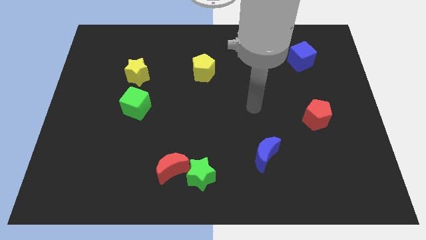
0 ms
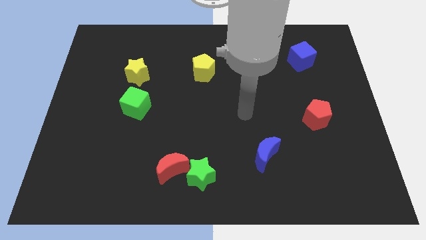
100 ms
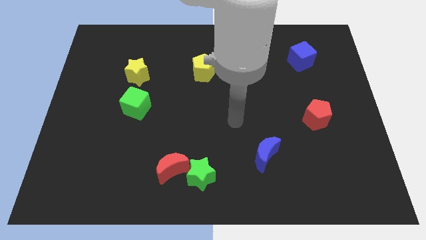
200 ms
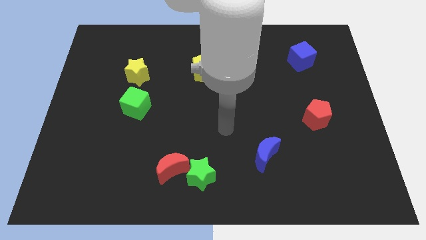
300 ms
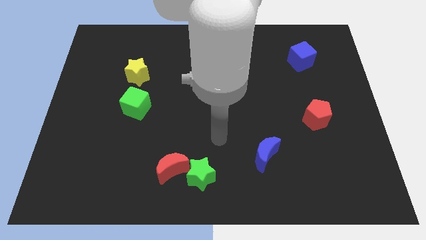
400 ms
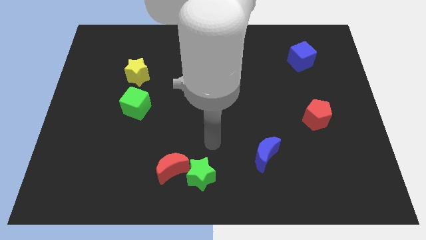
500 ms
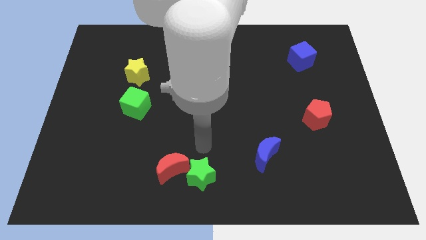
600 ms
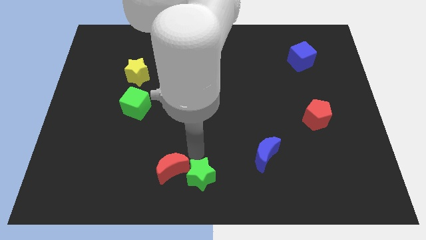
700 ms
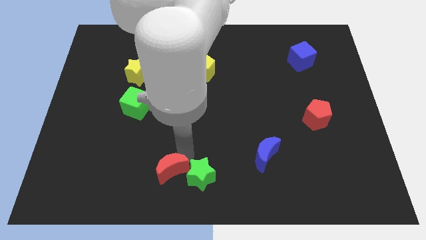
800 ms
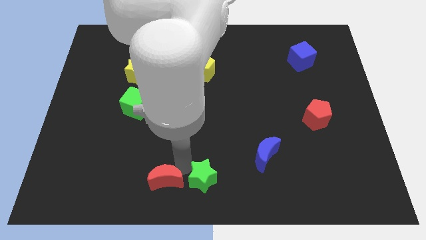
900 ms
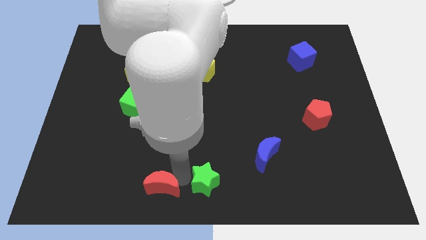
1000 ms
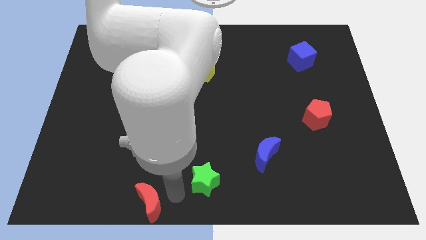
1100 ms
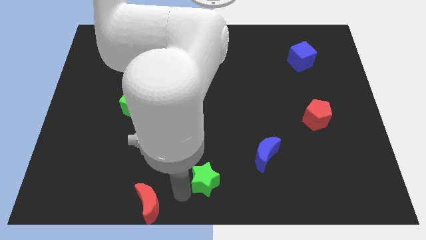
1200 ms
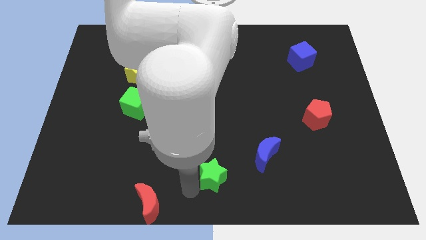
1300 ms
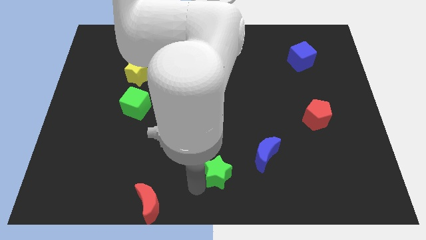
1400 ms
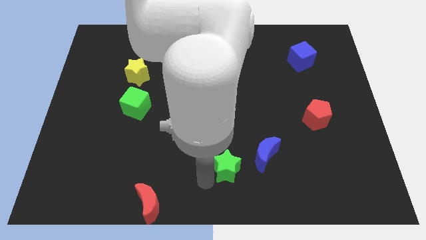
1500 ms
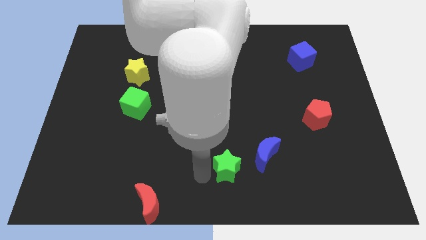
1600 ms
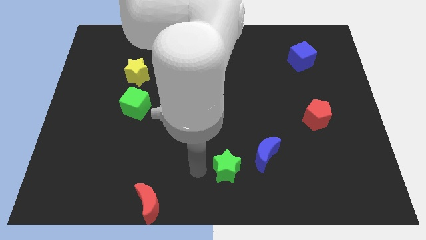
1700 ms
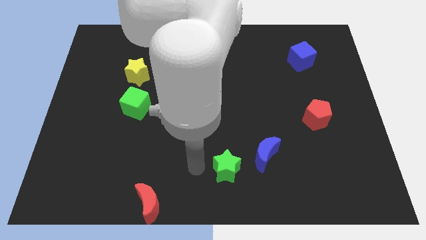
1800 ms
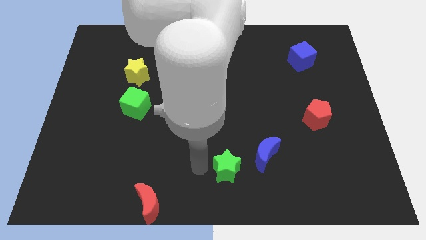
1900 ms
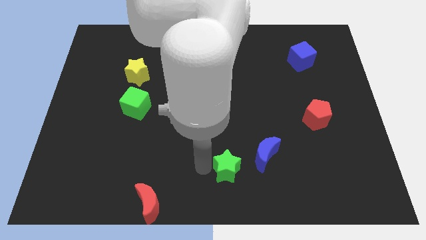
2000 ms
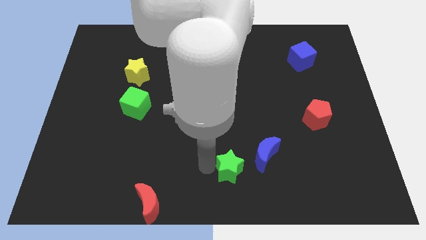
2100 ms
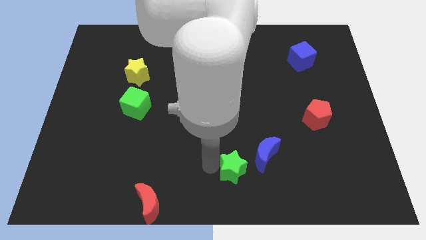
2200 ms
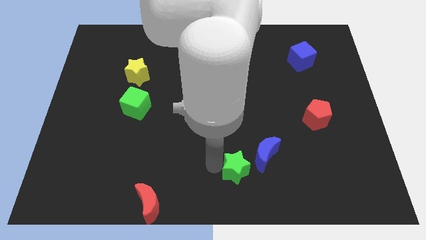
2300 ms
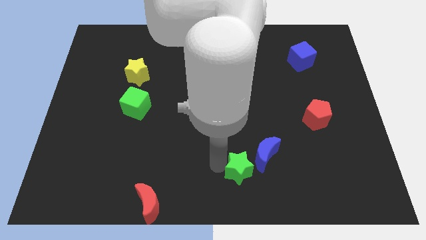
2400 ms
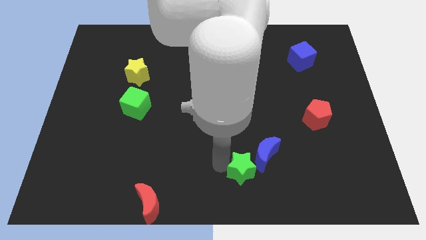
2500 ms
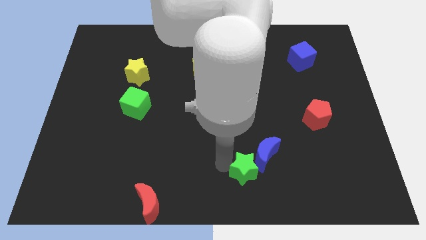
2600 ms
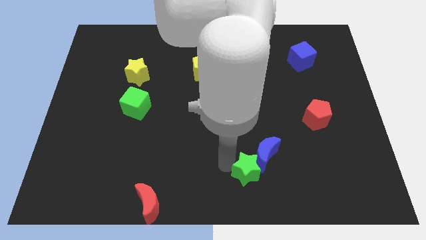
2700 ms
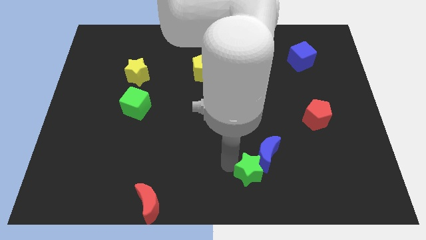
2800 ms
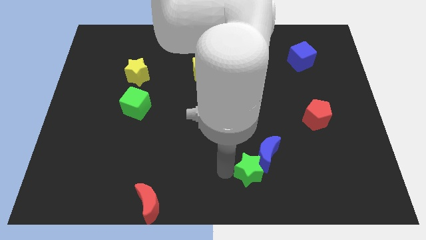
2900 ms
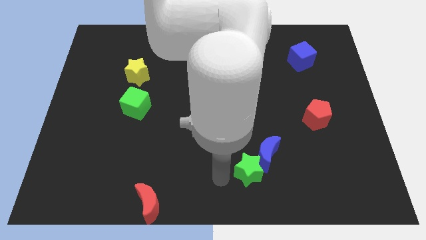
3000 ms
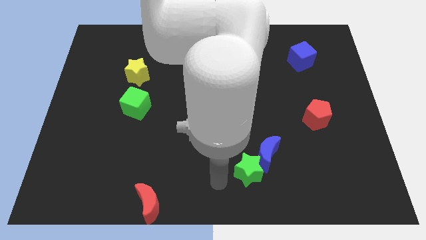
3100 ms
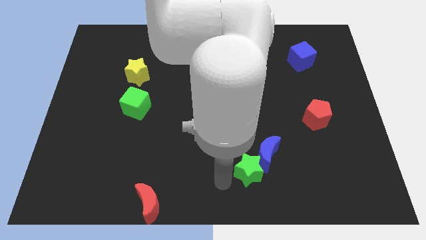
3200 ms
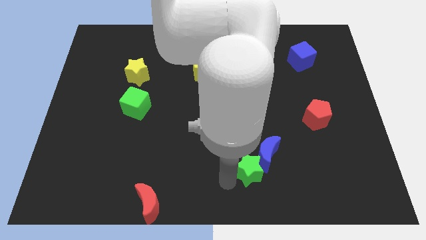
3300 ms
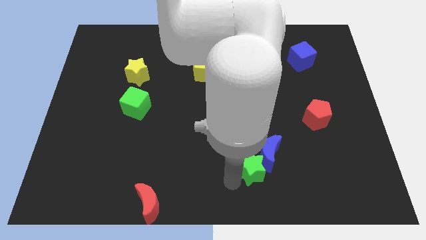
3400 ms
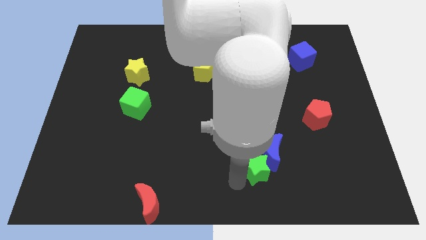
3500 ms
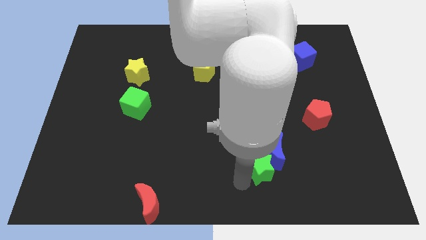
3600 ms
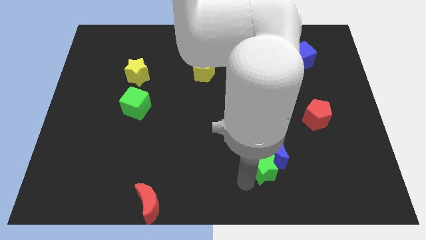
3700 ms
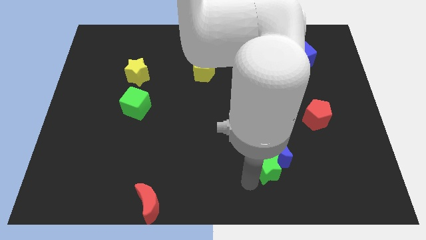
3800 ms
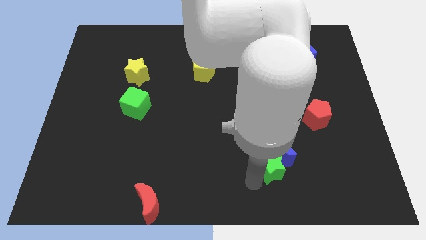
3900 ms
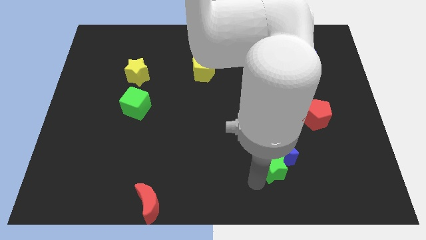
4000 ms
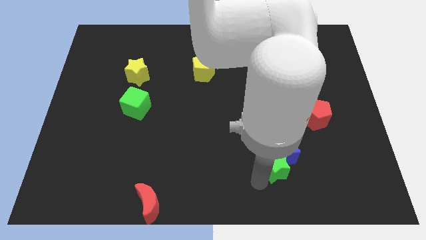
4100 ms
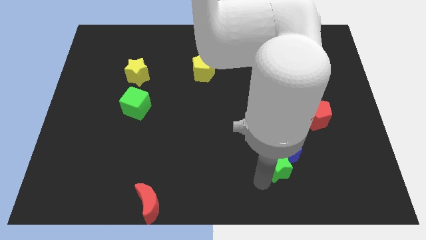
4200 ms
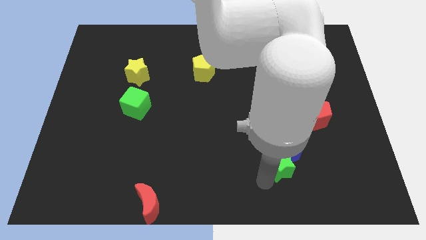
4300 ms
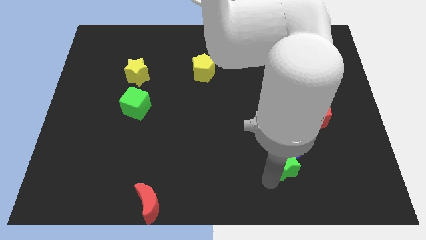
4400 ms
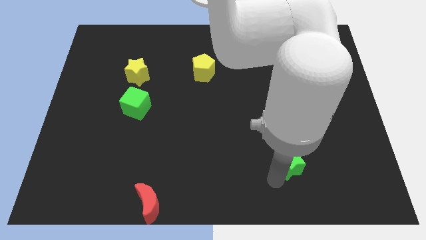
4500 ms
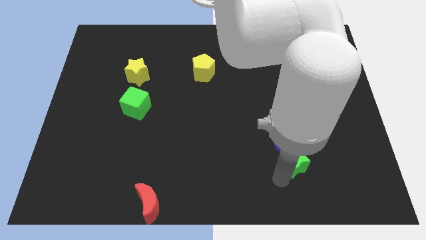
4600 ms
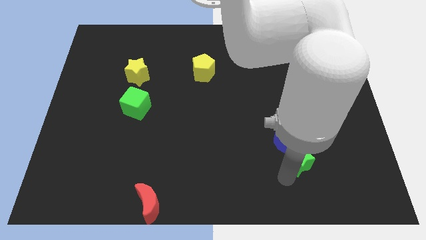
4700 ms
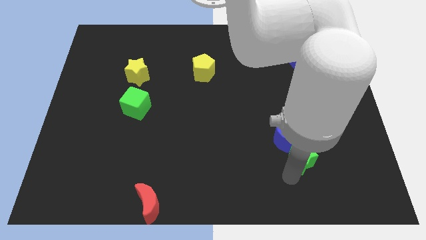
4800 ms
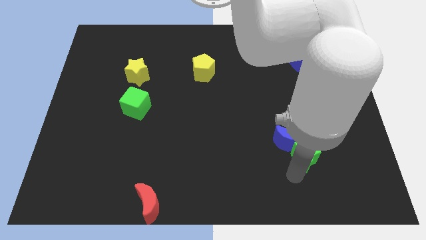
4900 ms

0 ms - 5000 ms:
move the green star to the right of the blue moon

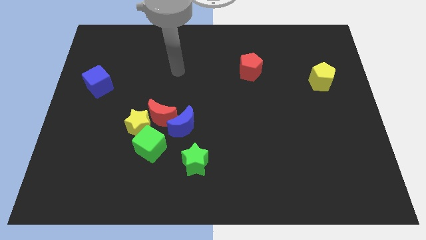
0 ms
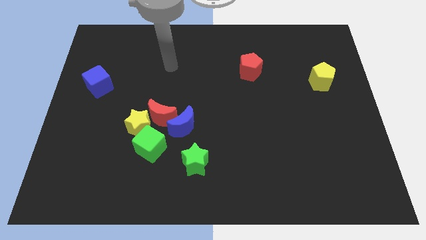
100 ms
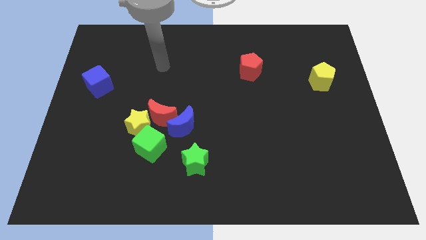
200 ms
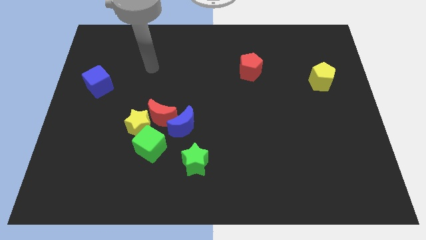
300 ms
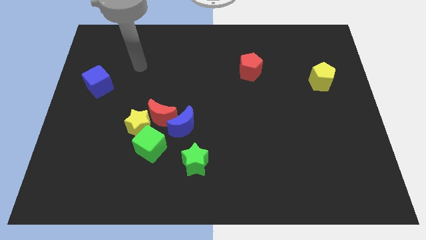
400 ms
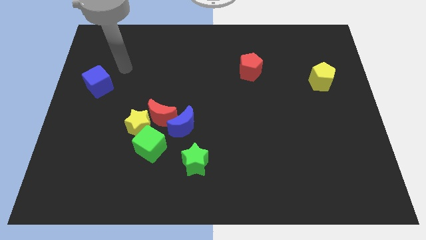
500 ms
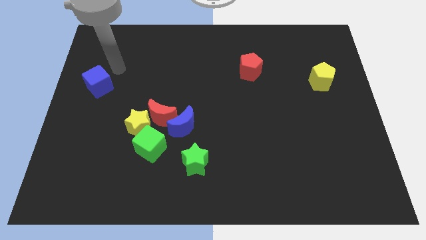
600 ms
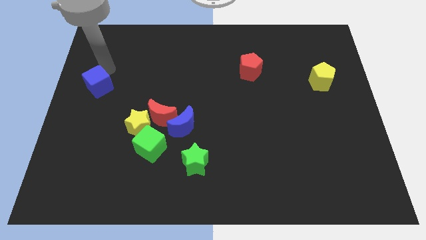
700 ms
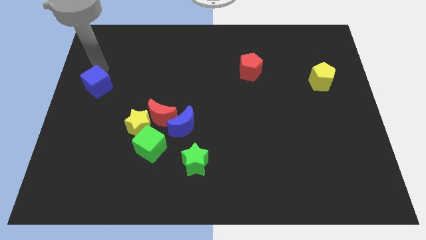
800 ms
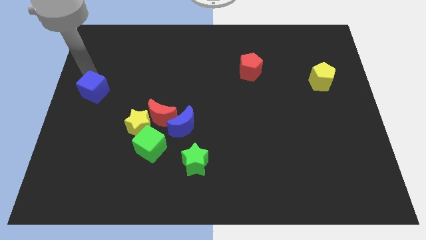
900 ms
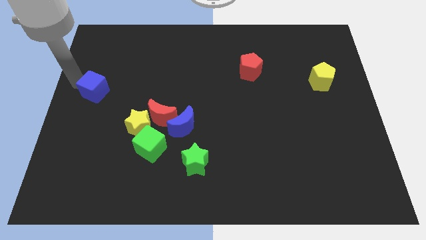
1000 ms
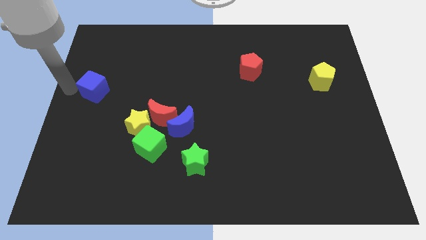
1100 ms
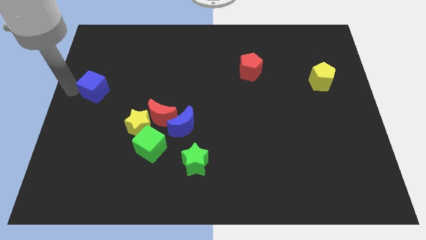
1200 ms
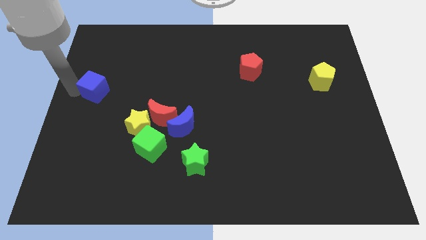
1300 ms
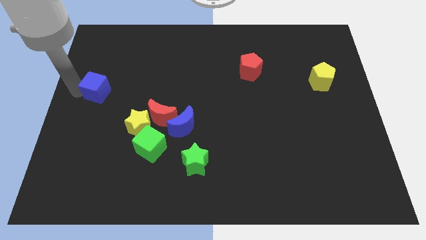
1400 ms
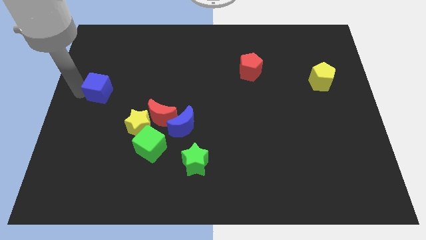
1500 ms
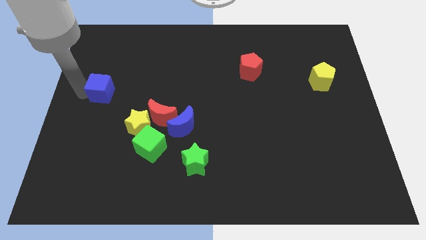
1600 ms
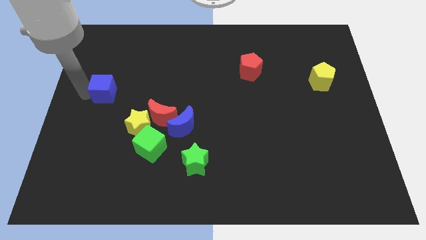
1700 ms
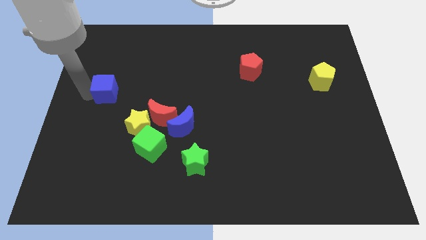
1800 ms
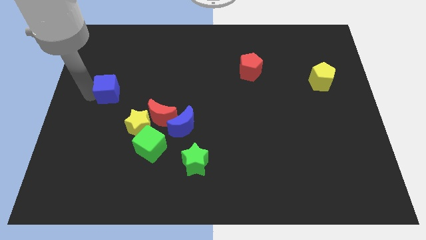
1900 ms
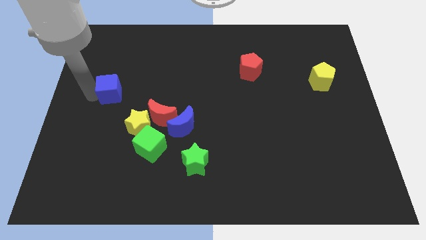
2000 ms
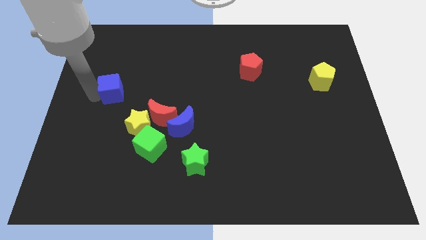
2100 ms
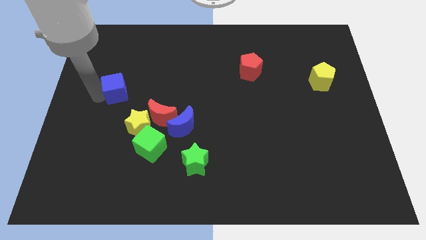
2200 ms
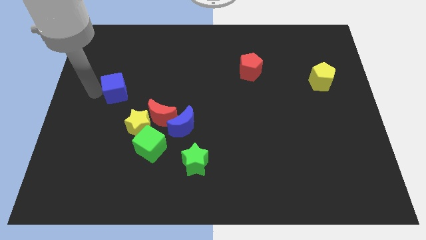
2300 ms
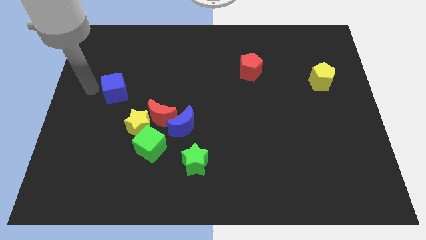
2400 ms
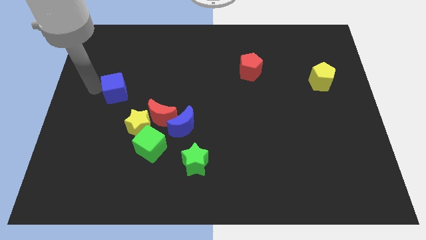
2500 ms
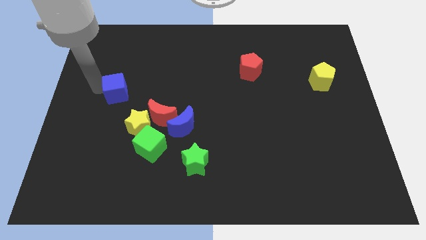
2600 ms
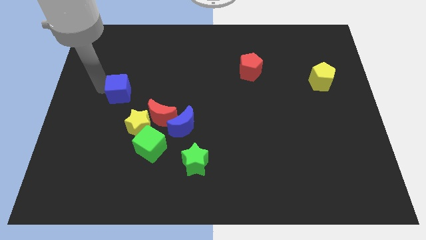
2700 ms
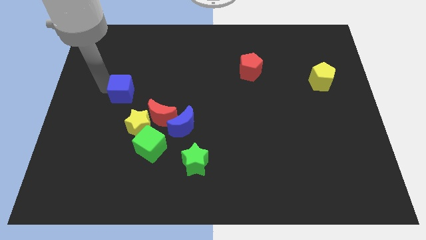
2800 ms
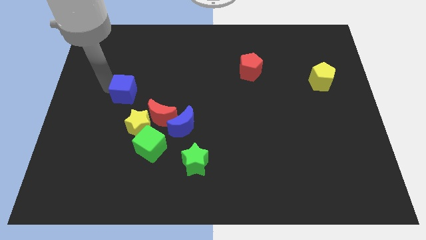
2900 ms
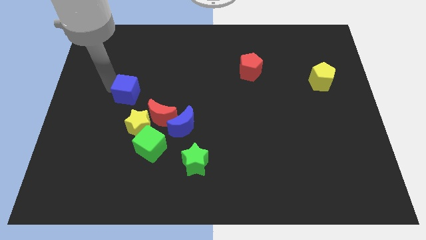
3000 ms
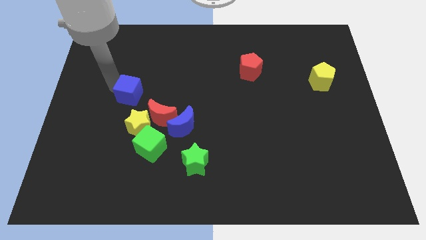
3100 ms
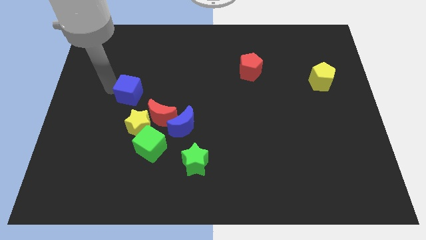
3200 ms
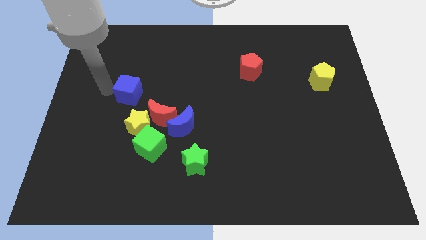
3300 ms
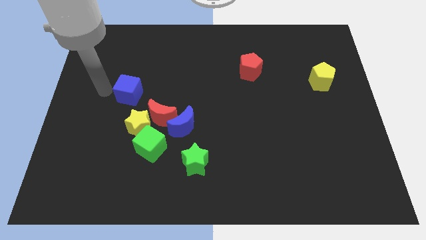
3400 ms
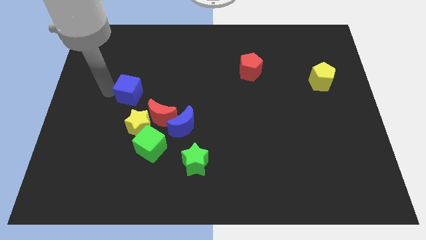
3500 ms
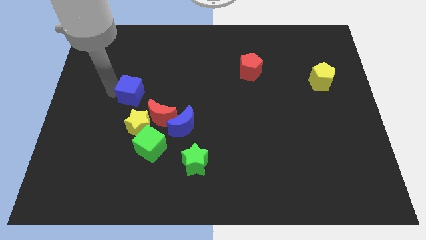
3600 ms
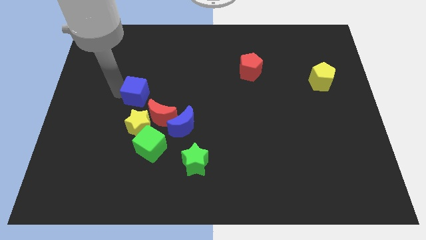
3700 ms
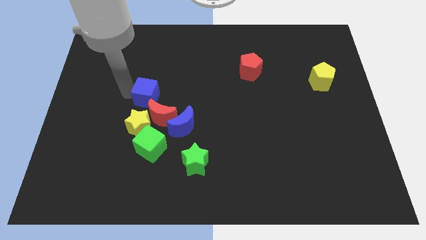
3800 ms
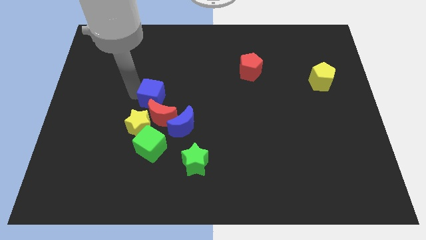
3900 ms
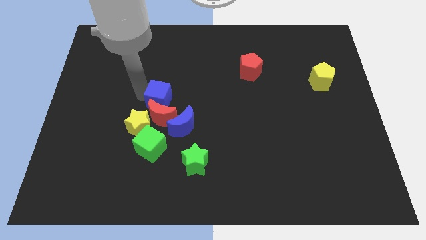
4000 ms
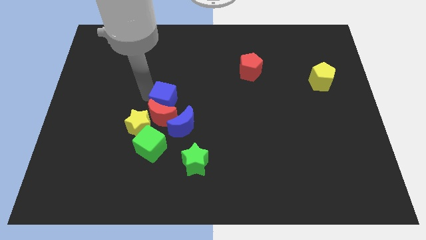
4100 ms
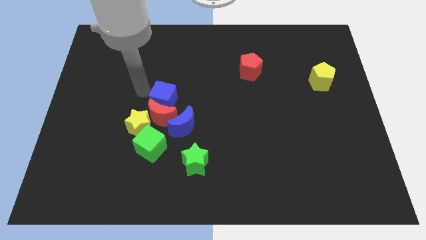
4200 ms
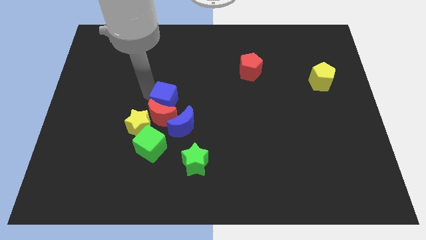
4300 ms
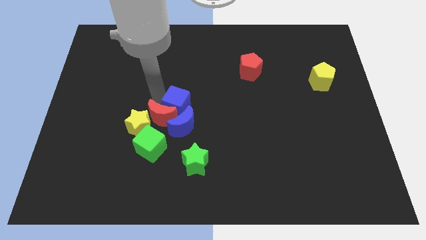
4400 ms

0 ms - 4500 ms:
put the blue cube to the right side of the red moon
